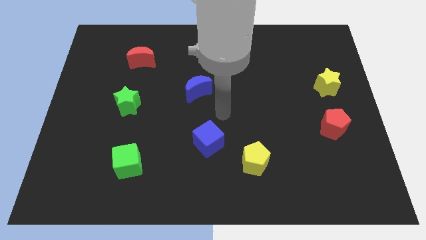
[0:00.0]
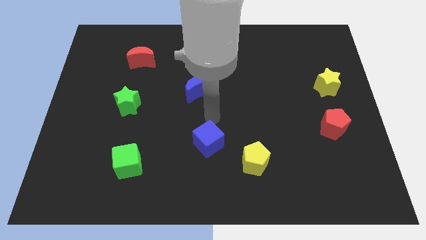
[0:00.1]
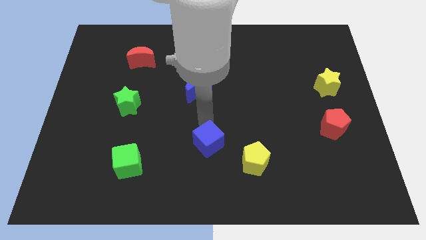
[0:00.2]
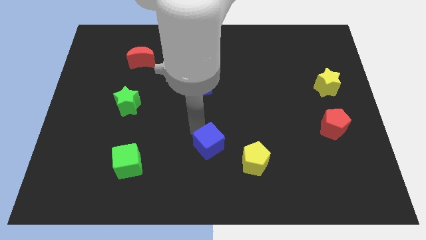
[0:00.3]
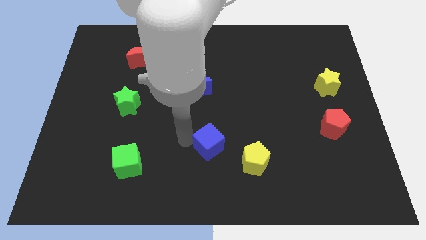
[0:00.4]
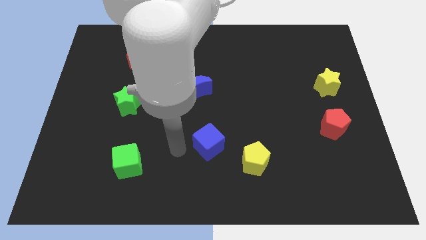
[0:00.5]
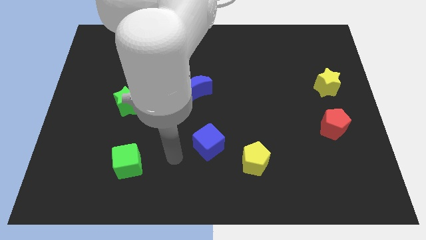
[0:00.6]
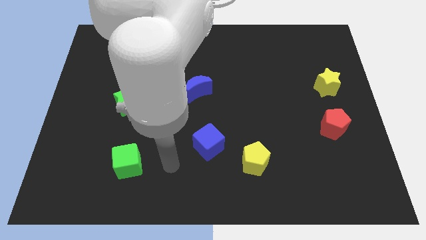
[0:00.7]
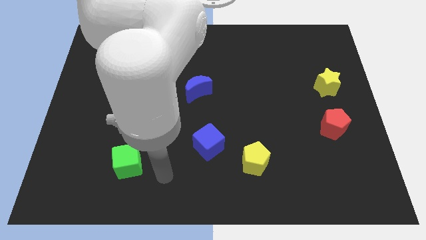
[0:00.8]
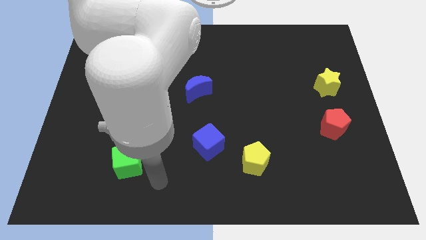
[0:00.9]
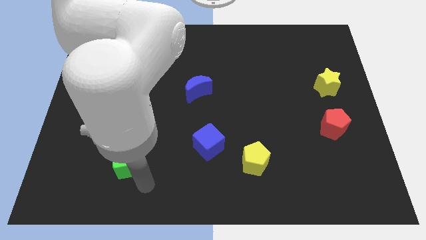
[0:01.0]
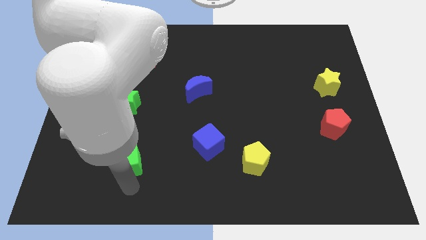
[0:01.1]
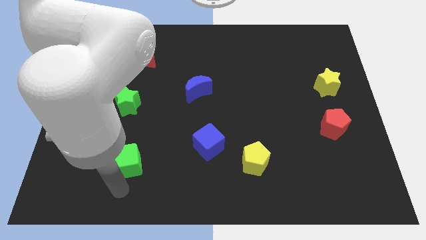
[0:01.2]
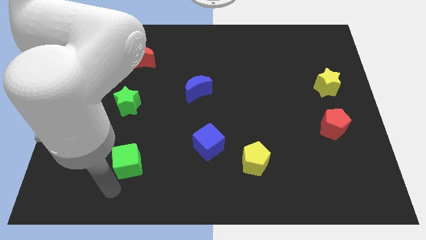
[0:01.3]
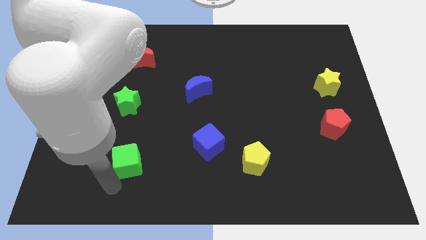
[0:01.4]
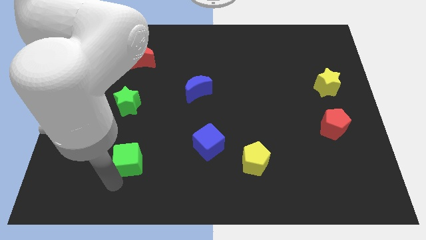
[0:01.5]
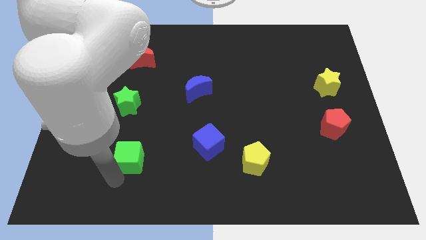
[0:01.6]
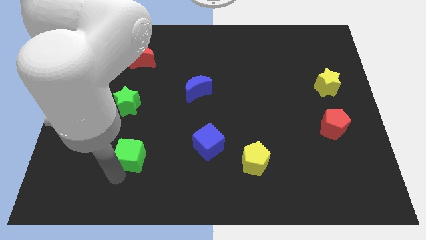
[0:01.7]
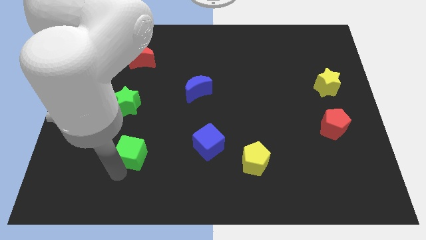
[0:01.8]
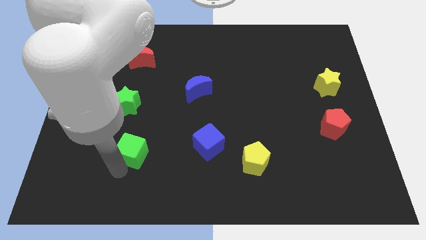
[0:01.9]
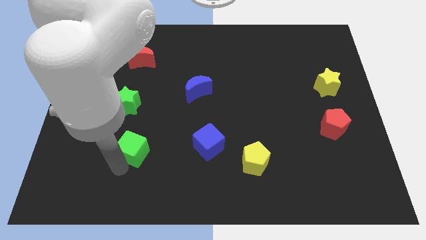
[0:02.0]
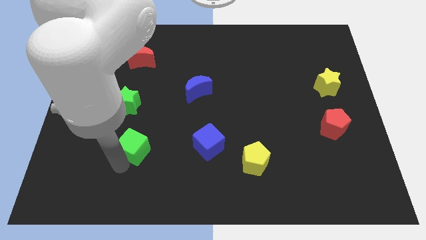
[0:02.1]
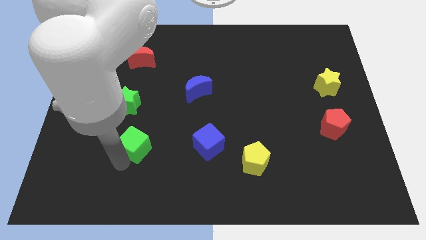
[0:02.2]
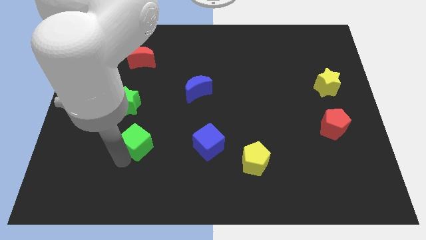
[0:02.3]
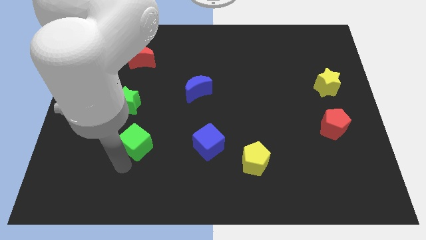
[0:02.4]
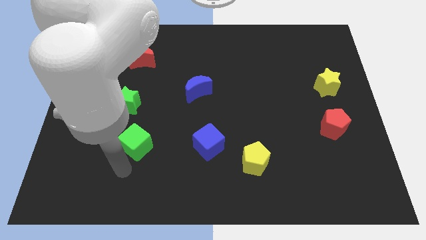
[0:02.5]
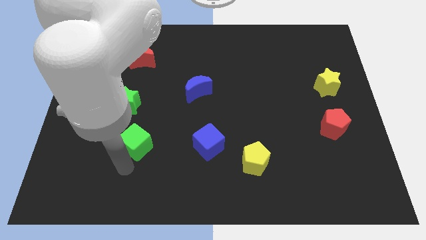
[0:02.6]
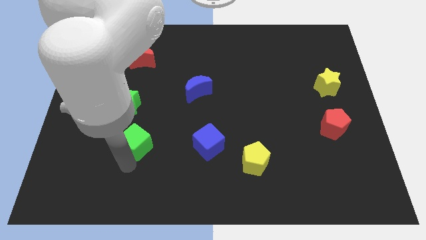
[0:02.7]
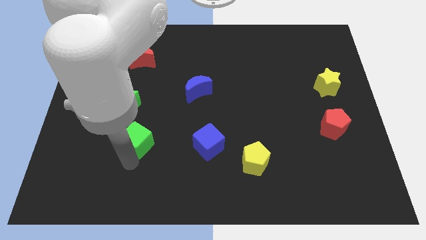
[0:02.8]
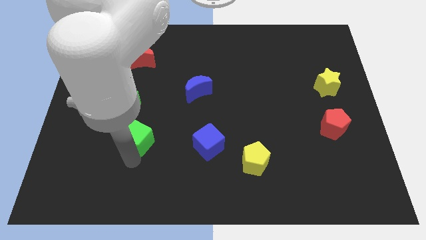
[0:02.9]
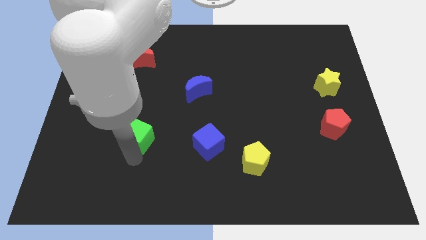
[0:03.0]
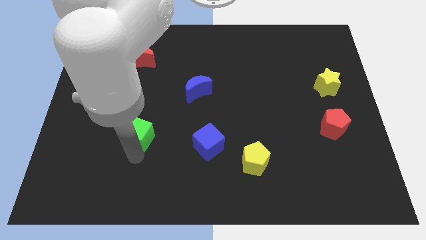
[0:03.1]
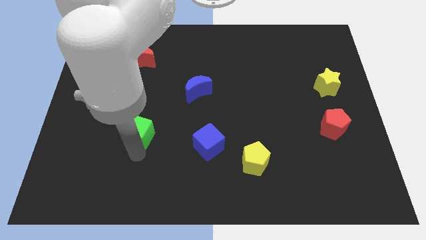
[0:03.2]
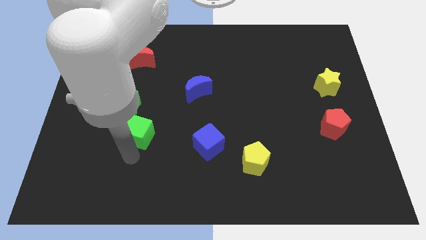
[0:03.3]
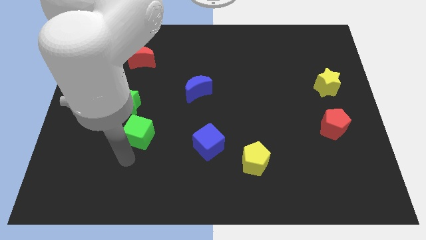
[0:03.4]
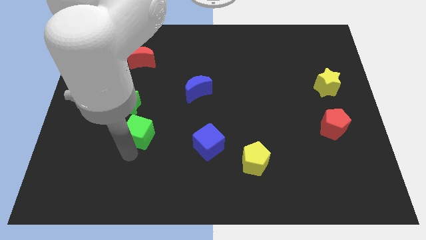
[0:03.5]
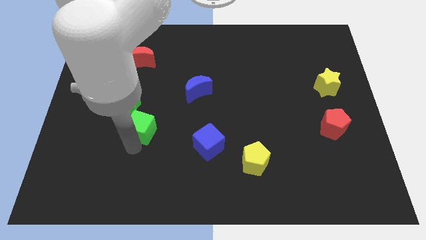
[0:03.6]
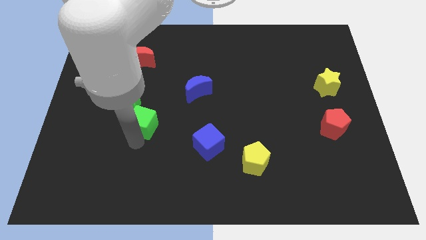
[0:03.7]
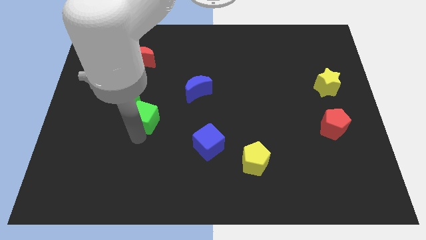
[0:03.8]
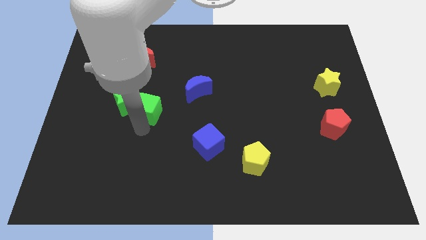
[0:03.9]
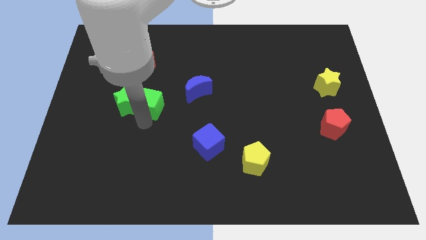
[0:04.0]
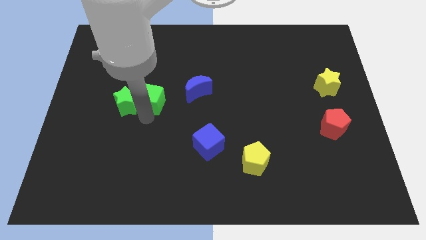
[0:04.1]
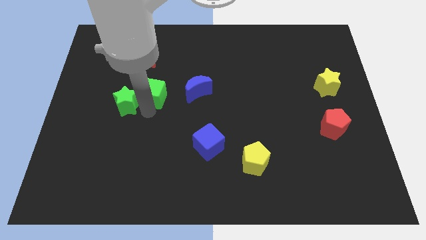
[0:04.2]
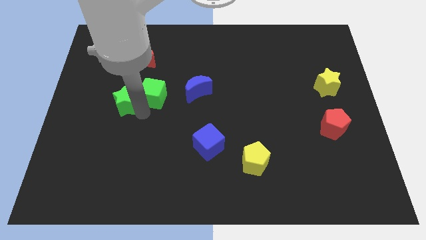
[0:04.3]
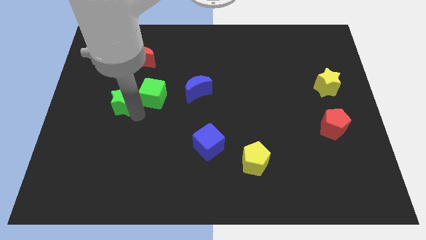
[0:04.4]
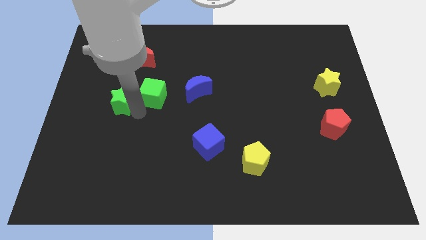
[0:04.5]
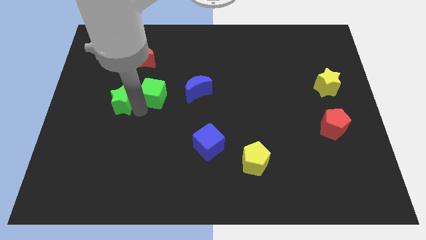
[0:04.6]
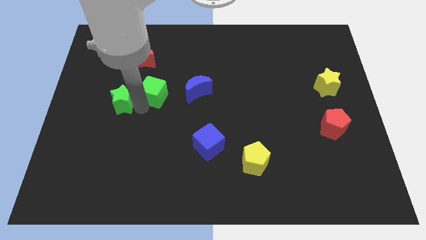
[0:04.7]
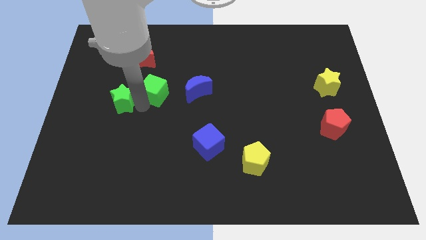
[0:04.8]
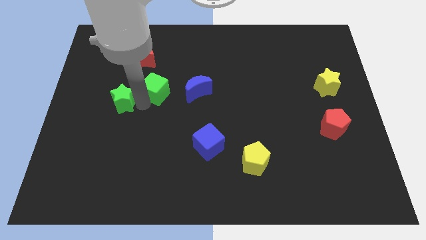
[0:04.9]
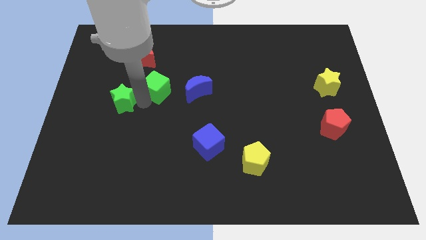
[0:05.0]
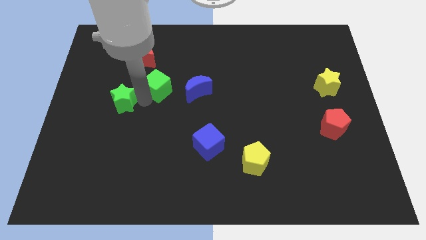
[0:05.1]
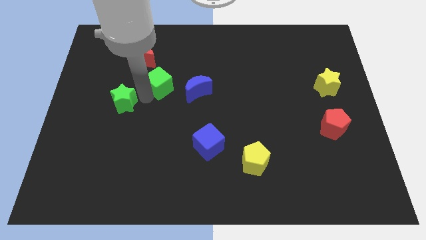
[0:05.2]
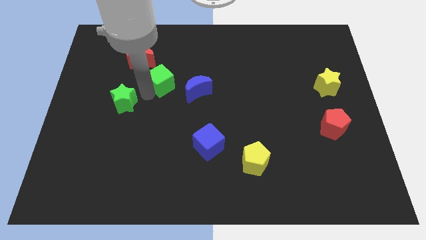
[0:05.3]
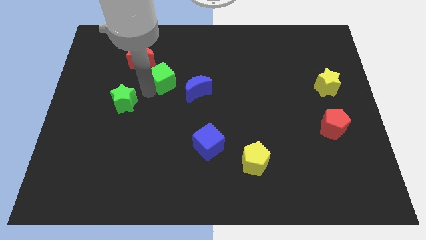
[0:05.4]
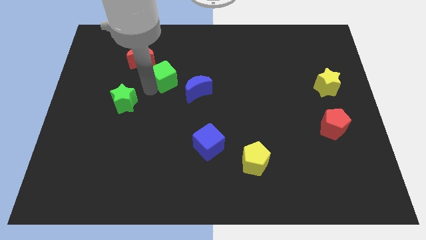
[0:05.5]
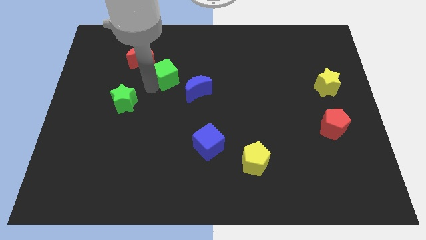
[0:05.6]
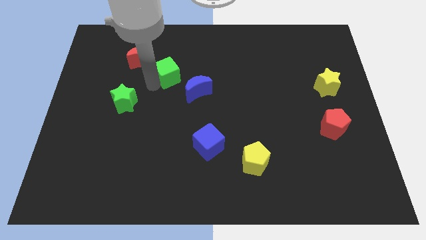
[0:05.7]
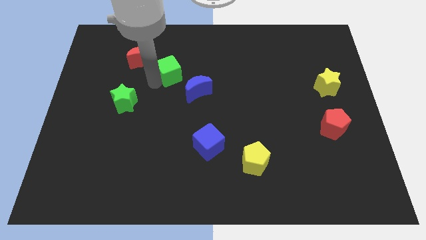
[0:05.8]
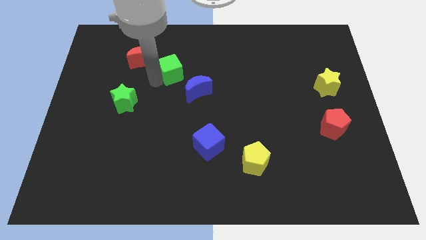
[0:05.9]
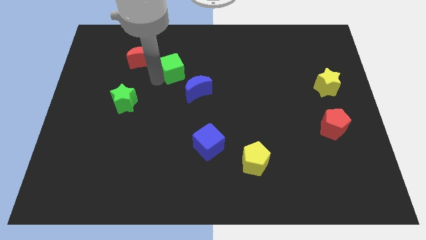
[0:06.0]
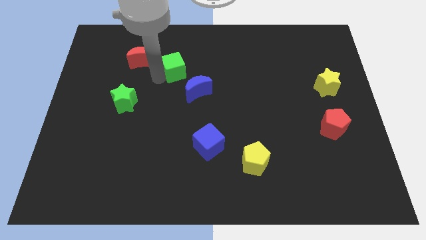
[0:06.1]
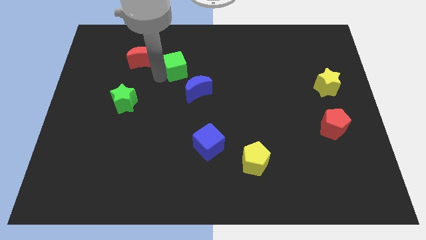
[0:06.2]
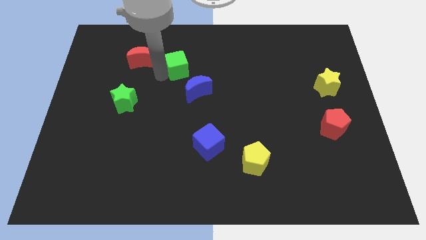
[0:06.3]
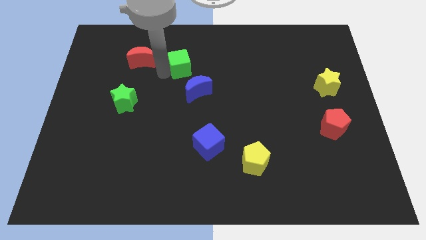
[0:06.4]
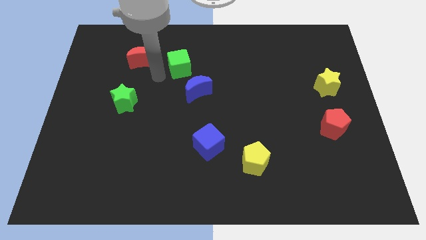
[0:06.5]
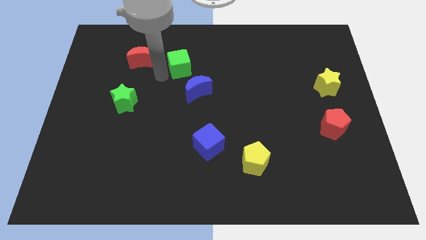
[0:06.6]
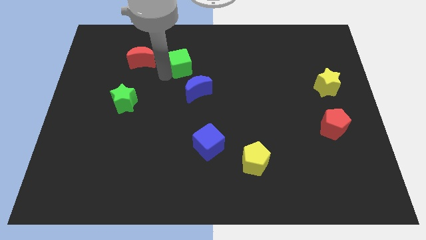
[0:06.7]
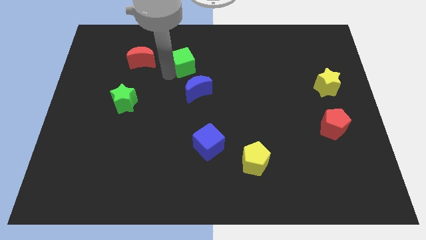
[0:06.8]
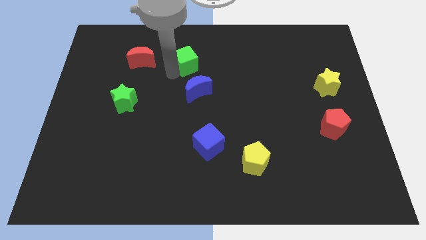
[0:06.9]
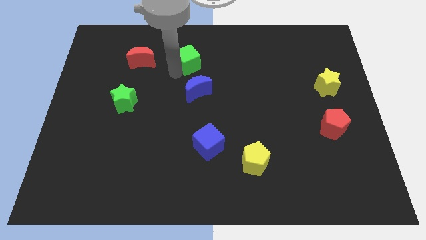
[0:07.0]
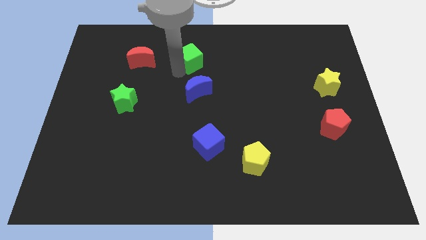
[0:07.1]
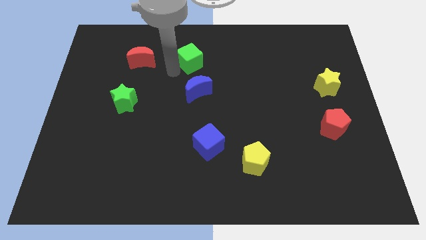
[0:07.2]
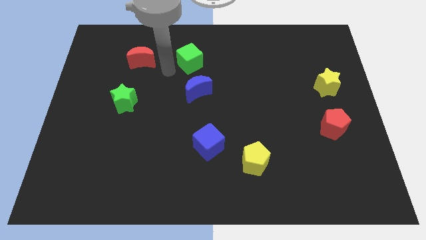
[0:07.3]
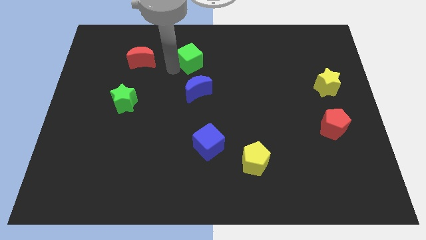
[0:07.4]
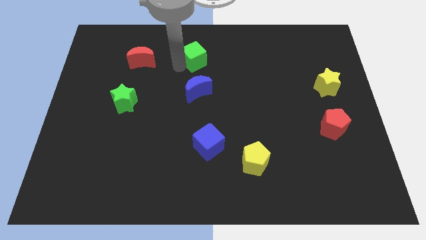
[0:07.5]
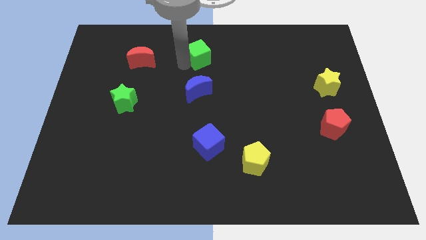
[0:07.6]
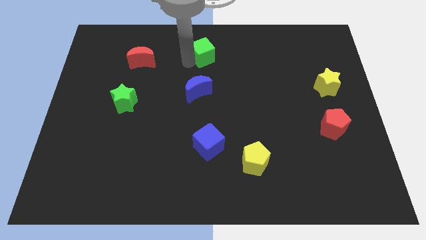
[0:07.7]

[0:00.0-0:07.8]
move the green cube to the top side
